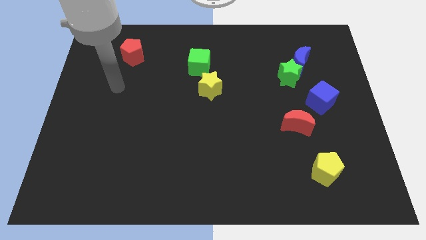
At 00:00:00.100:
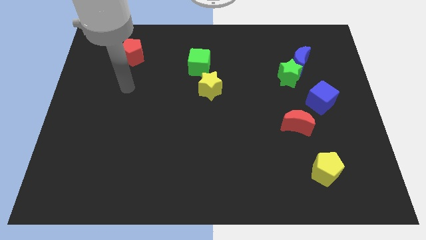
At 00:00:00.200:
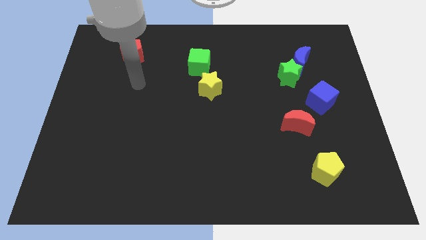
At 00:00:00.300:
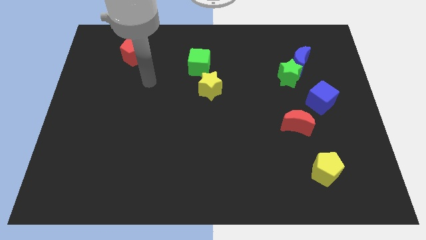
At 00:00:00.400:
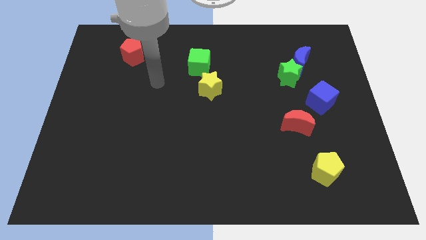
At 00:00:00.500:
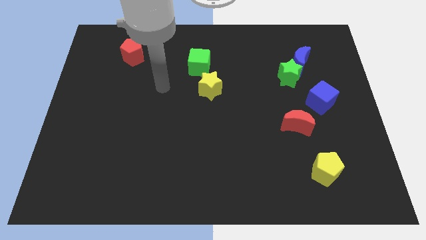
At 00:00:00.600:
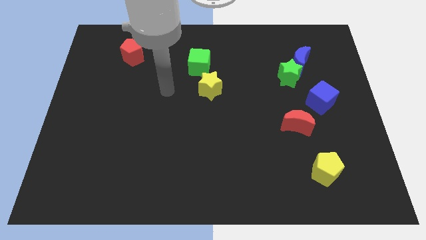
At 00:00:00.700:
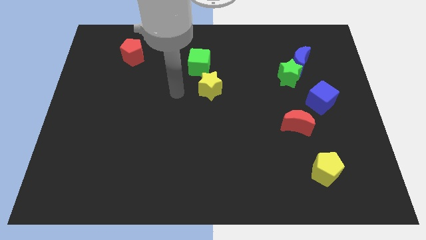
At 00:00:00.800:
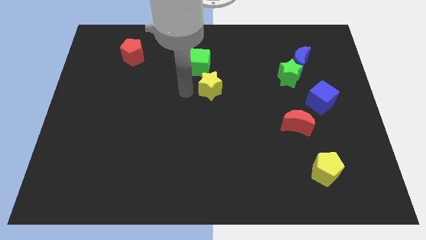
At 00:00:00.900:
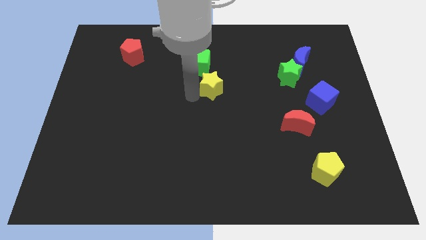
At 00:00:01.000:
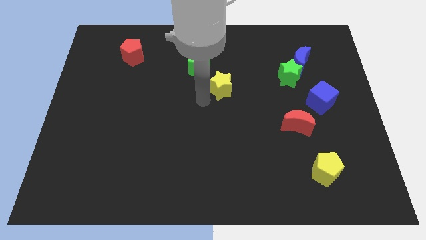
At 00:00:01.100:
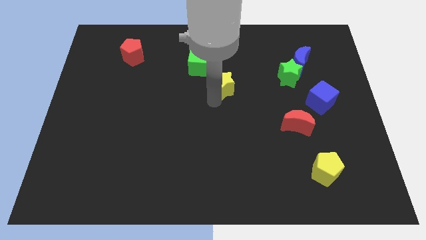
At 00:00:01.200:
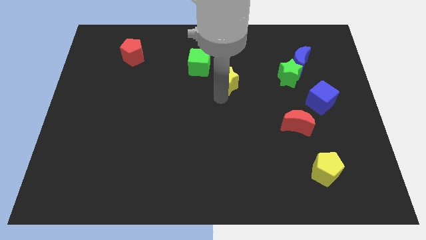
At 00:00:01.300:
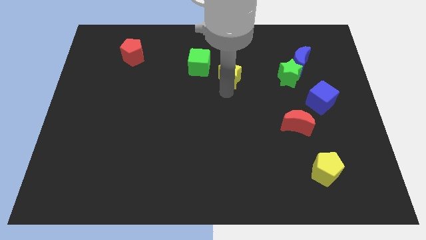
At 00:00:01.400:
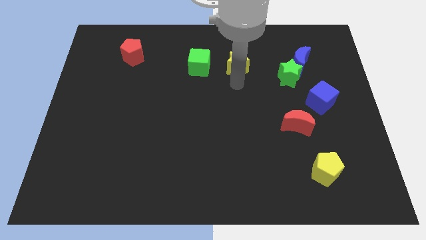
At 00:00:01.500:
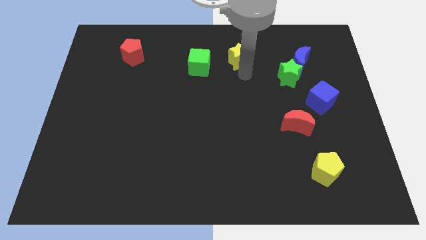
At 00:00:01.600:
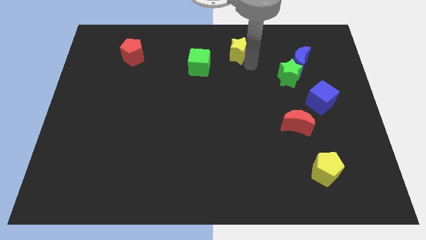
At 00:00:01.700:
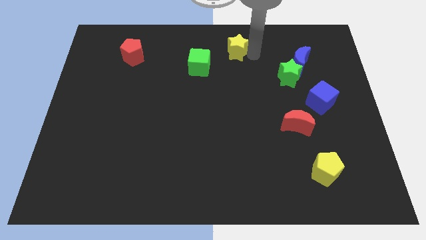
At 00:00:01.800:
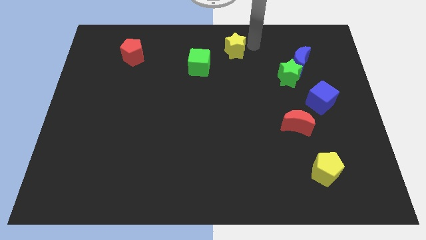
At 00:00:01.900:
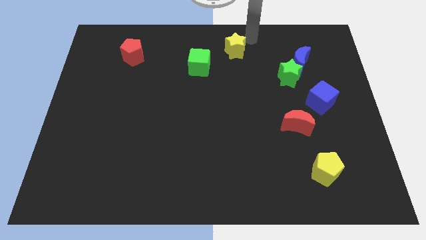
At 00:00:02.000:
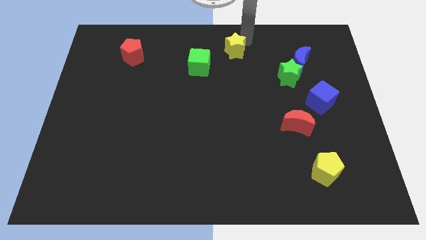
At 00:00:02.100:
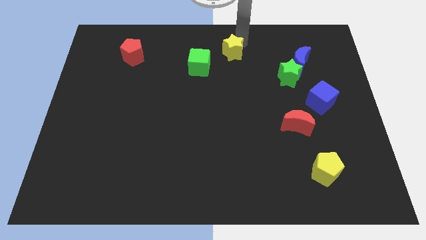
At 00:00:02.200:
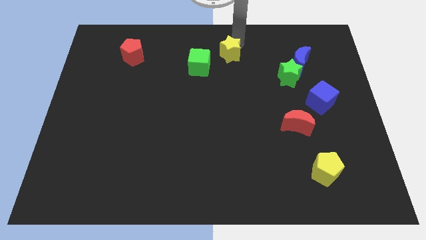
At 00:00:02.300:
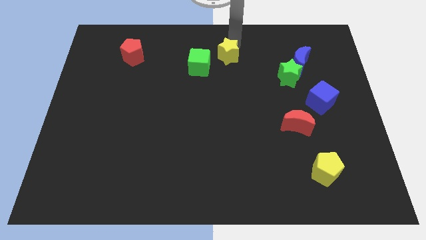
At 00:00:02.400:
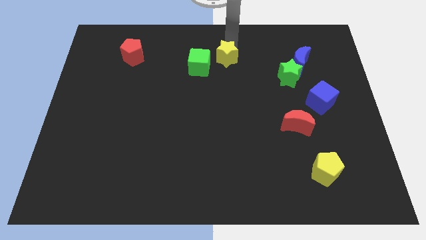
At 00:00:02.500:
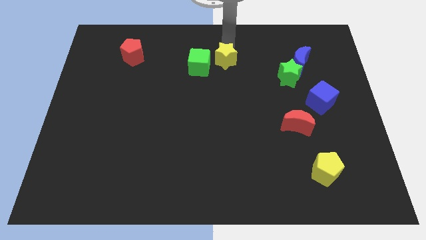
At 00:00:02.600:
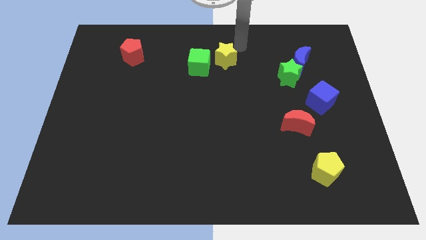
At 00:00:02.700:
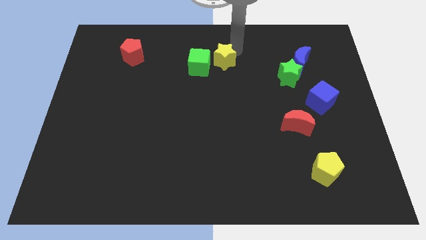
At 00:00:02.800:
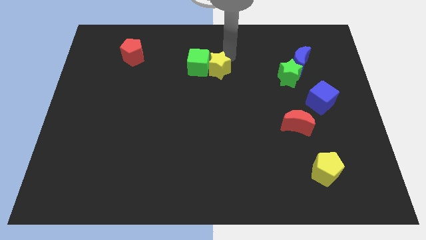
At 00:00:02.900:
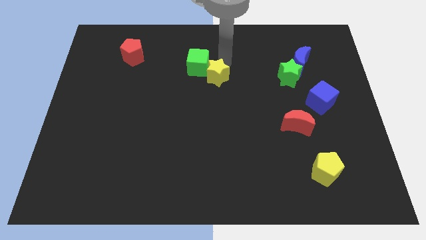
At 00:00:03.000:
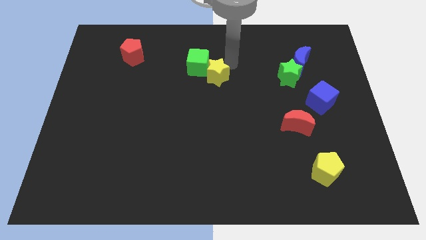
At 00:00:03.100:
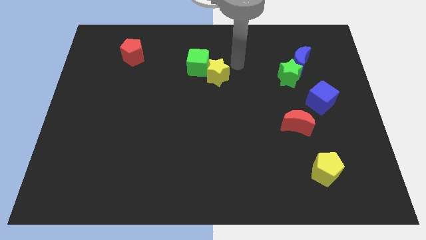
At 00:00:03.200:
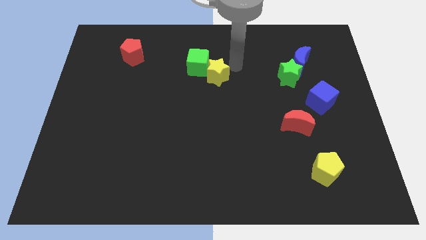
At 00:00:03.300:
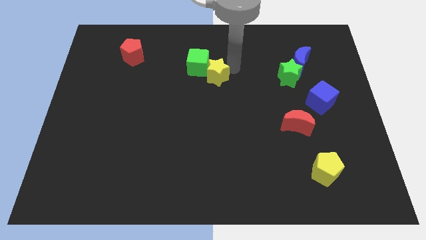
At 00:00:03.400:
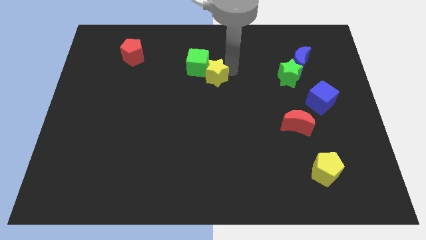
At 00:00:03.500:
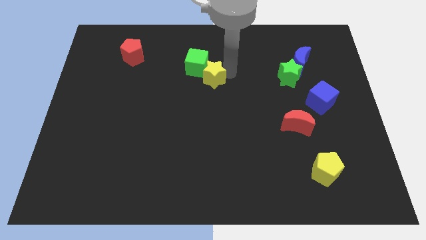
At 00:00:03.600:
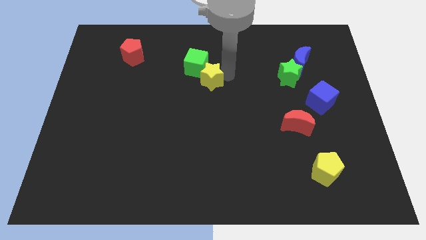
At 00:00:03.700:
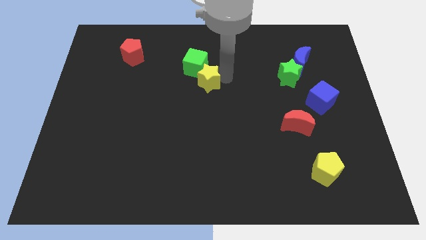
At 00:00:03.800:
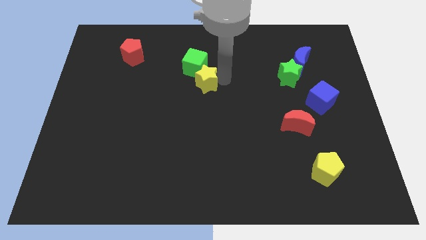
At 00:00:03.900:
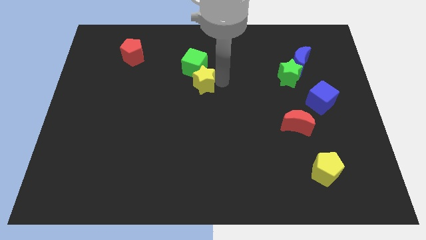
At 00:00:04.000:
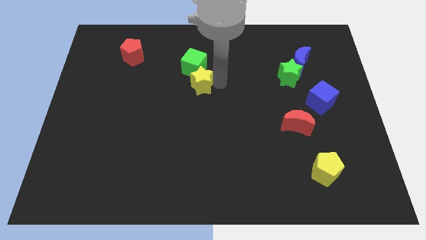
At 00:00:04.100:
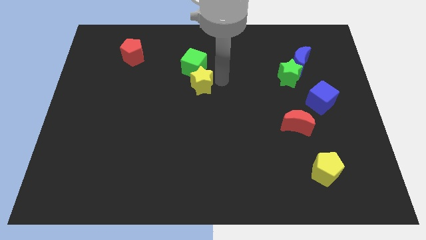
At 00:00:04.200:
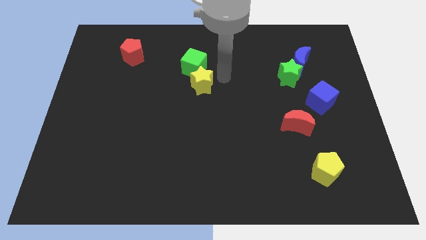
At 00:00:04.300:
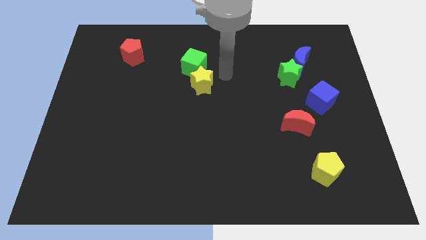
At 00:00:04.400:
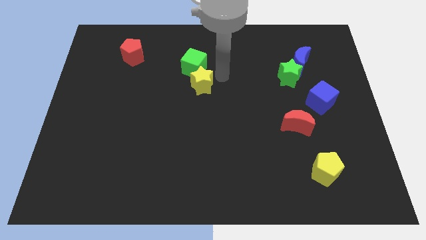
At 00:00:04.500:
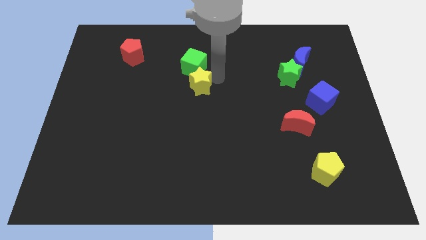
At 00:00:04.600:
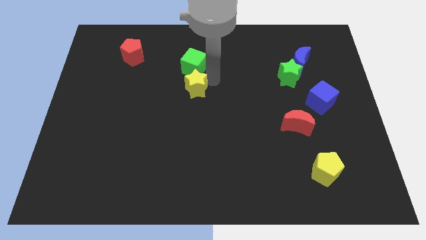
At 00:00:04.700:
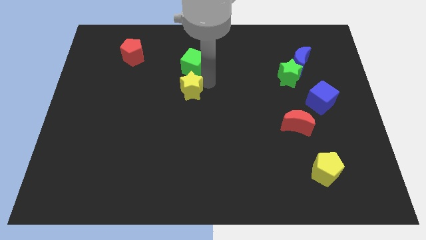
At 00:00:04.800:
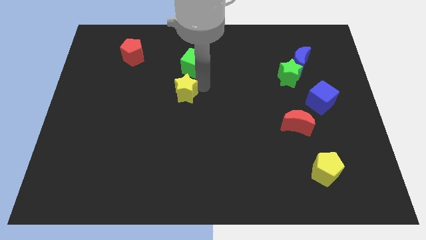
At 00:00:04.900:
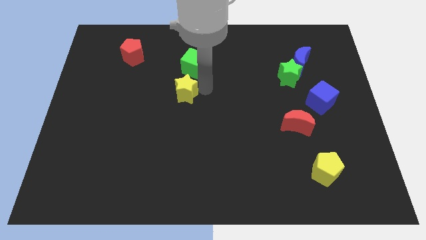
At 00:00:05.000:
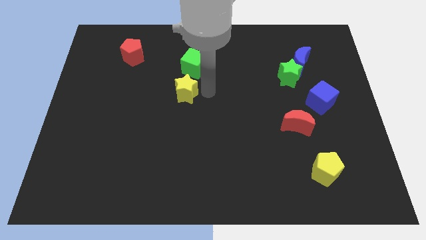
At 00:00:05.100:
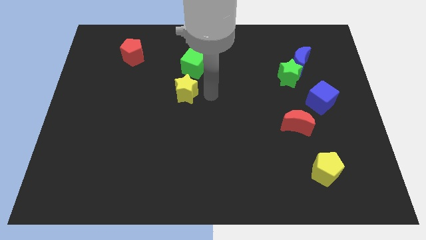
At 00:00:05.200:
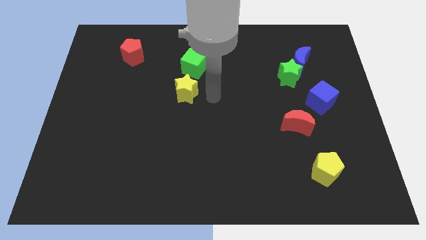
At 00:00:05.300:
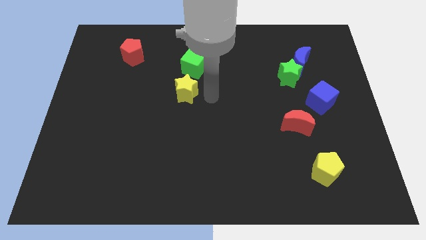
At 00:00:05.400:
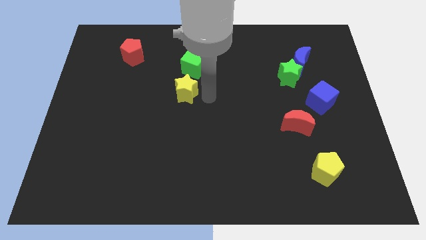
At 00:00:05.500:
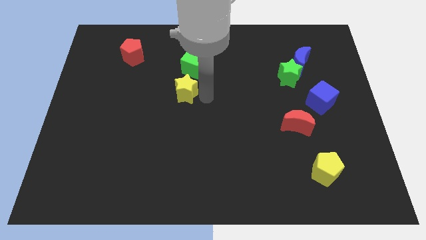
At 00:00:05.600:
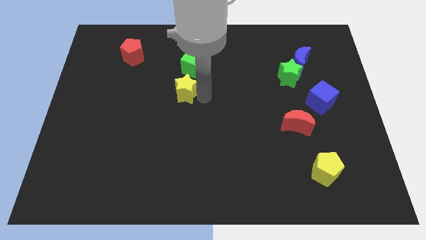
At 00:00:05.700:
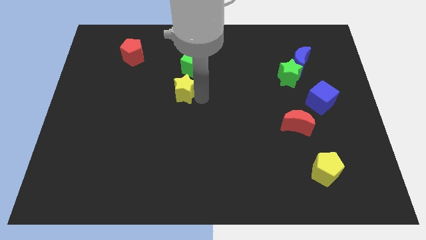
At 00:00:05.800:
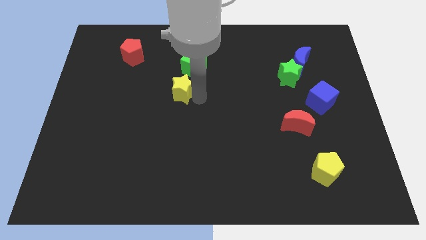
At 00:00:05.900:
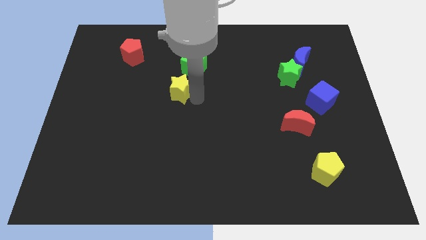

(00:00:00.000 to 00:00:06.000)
slightly move the yellow star left

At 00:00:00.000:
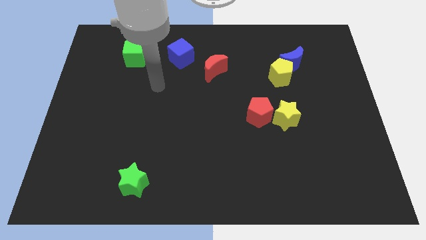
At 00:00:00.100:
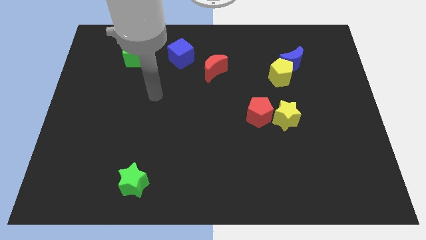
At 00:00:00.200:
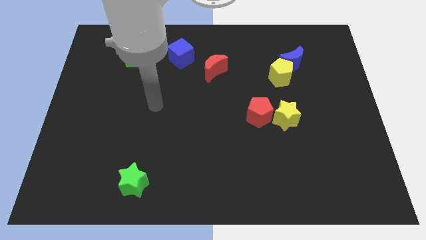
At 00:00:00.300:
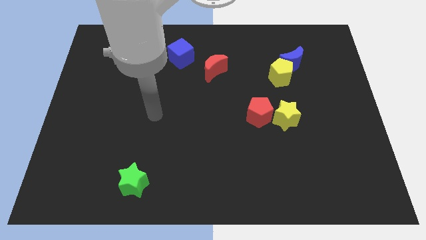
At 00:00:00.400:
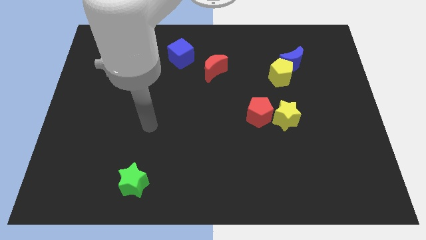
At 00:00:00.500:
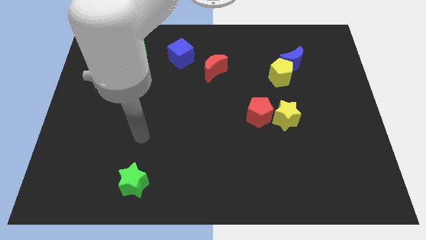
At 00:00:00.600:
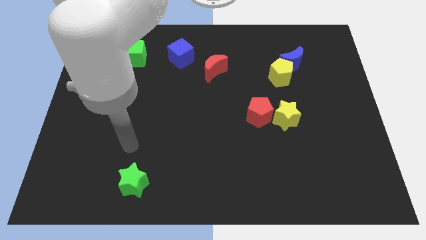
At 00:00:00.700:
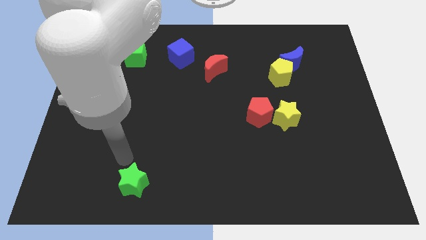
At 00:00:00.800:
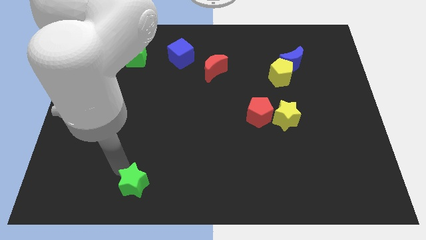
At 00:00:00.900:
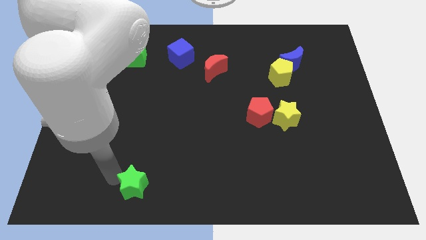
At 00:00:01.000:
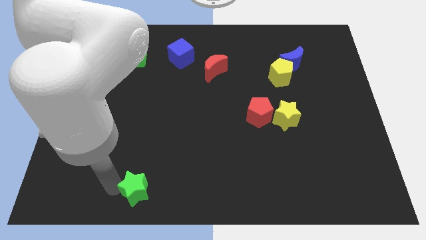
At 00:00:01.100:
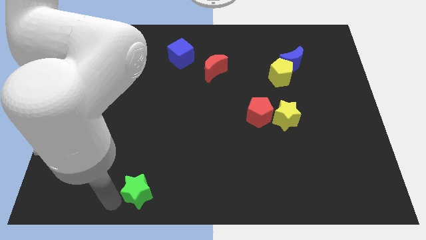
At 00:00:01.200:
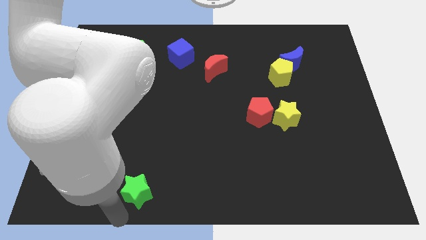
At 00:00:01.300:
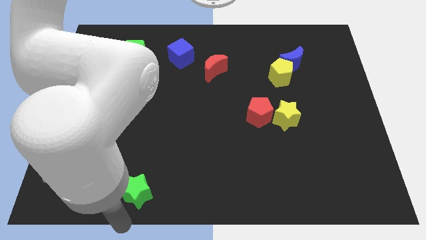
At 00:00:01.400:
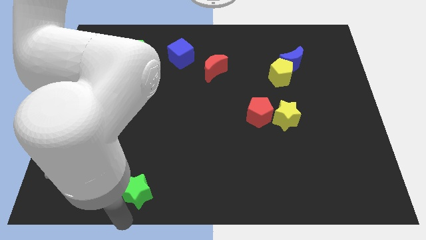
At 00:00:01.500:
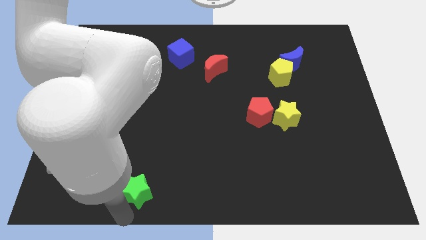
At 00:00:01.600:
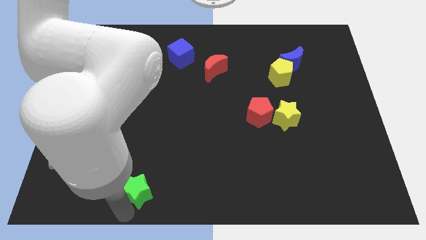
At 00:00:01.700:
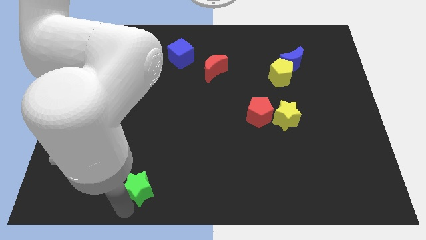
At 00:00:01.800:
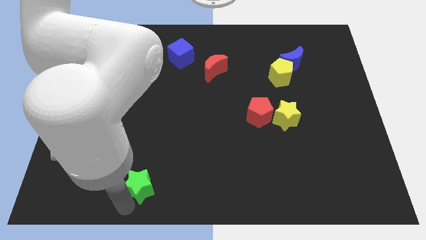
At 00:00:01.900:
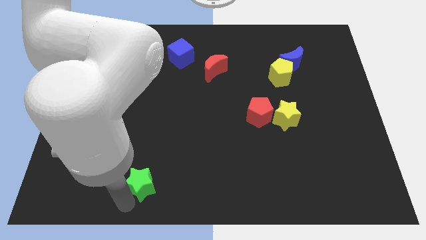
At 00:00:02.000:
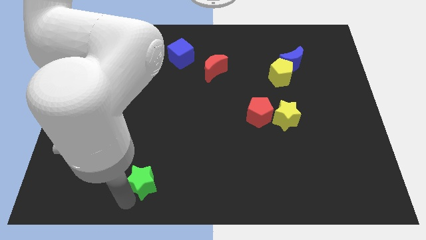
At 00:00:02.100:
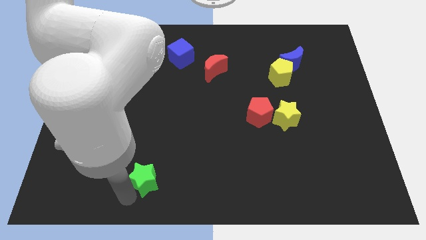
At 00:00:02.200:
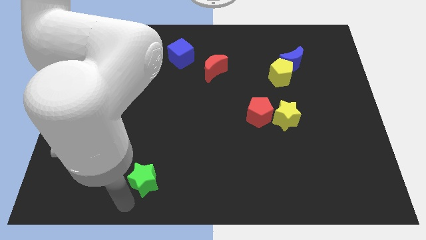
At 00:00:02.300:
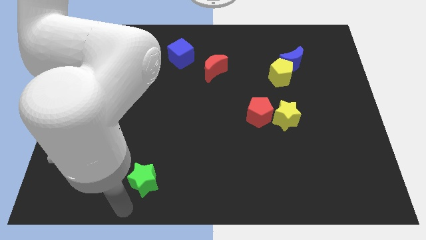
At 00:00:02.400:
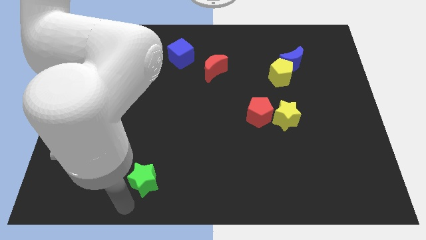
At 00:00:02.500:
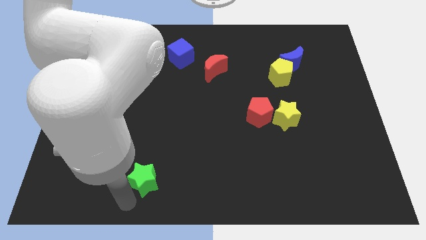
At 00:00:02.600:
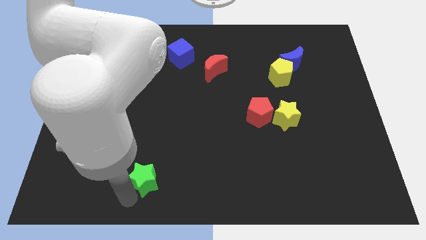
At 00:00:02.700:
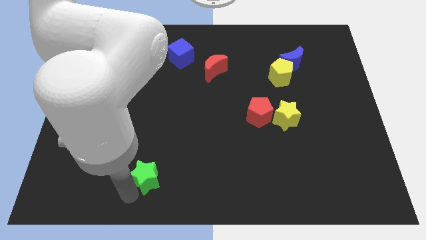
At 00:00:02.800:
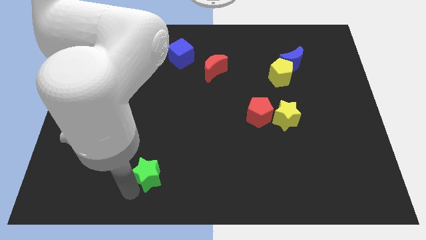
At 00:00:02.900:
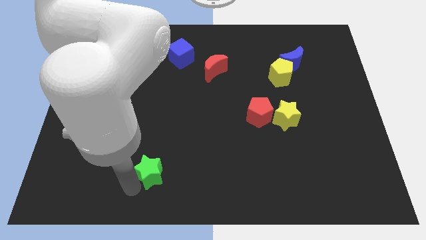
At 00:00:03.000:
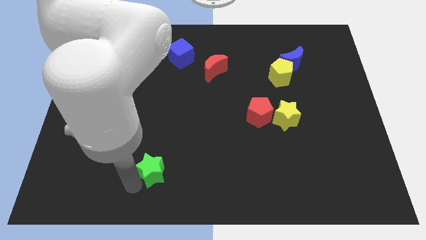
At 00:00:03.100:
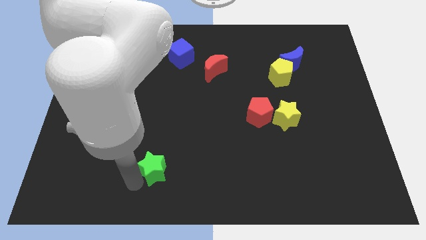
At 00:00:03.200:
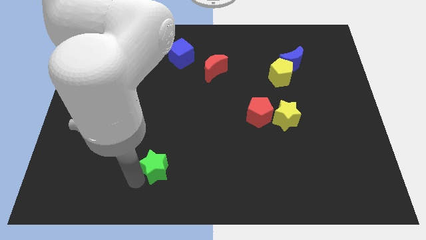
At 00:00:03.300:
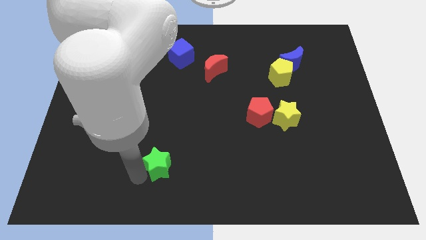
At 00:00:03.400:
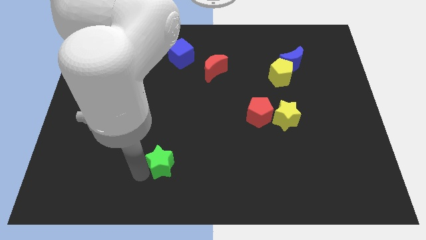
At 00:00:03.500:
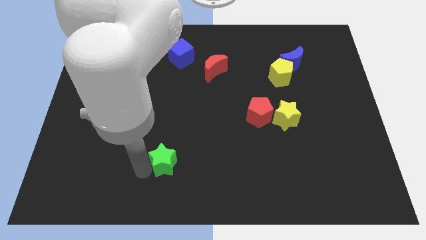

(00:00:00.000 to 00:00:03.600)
push the green star upwards and then to the right slightly
